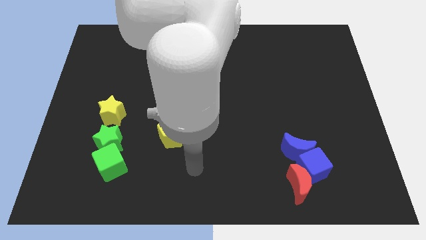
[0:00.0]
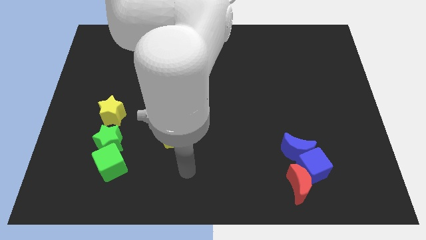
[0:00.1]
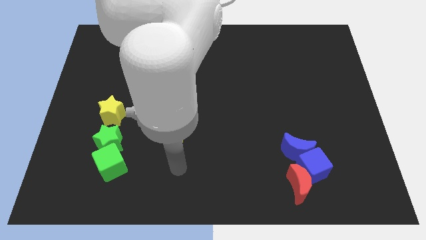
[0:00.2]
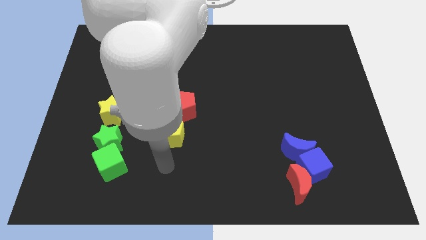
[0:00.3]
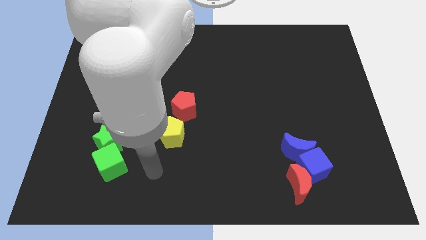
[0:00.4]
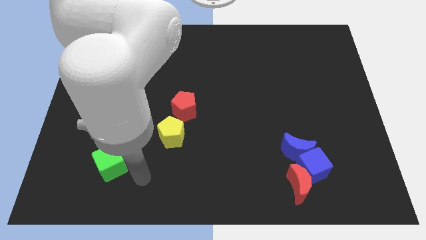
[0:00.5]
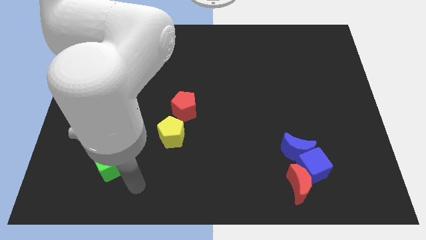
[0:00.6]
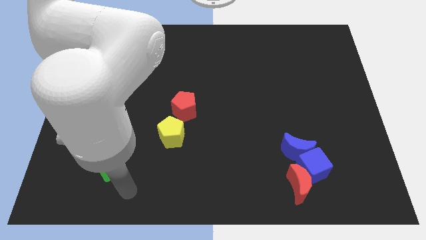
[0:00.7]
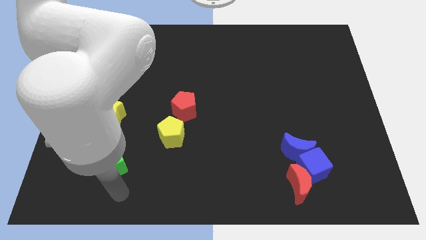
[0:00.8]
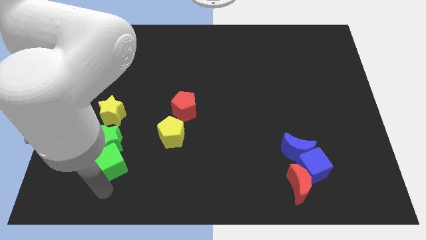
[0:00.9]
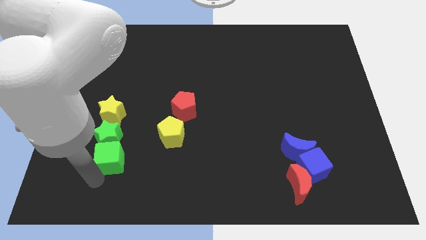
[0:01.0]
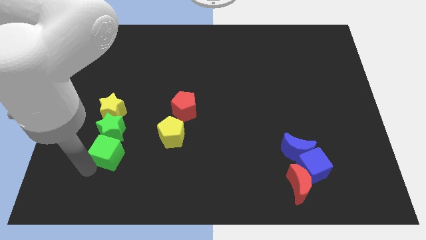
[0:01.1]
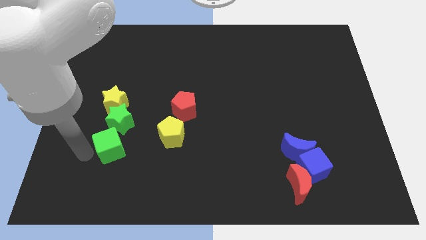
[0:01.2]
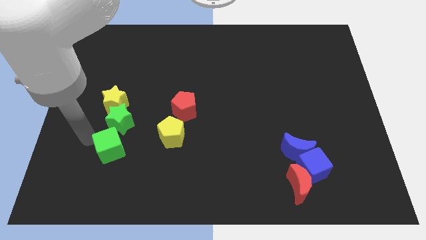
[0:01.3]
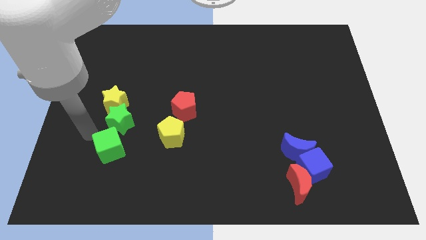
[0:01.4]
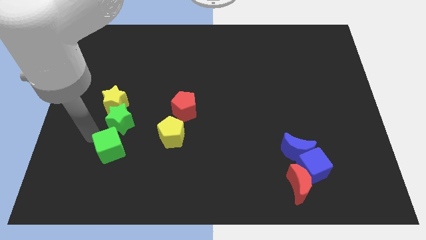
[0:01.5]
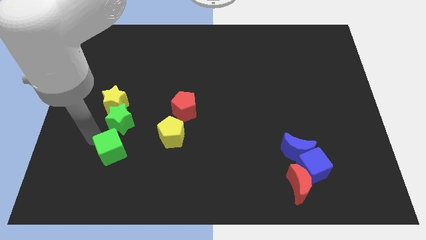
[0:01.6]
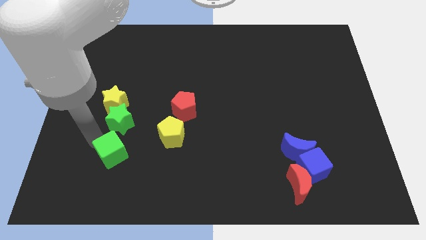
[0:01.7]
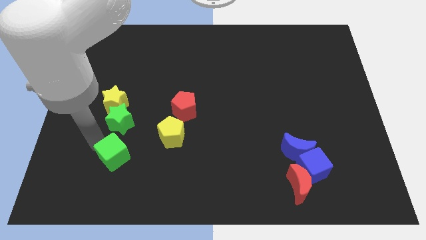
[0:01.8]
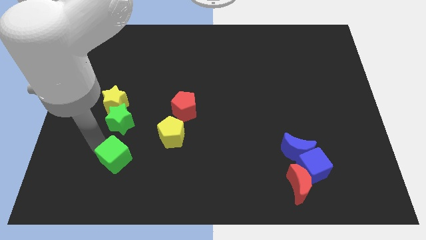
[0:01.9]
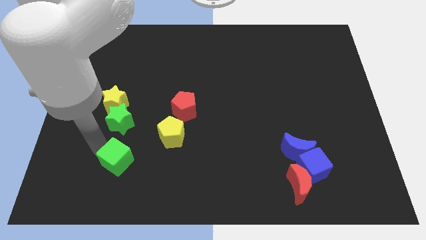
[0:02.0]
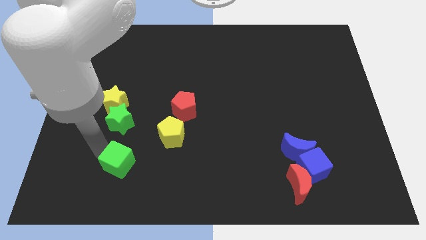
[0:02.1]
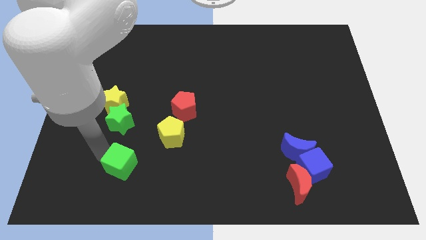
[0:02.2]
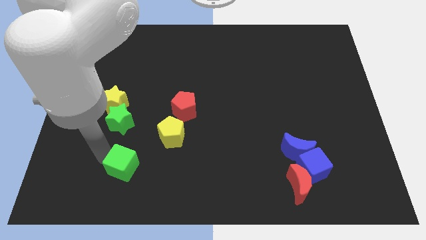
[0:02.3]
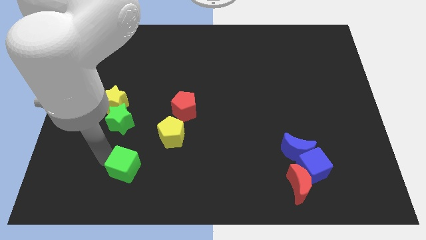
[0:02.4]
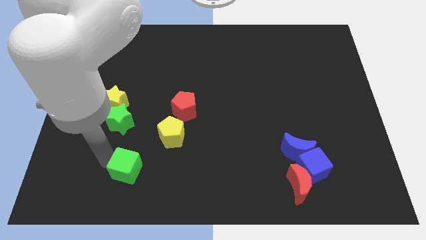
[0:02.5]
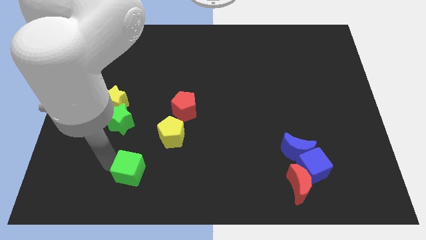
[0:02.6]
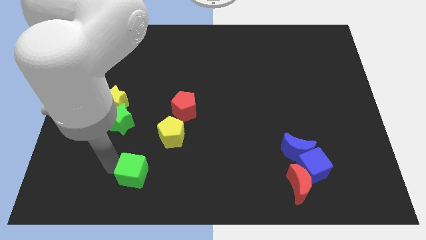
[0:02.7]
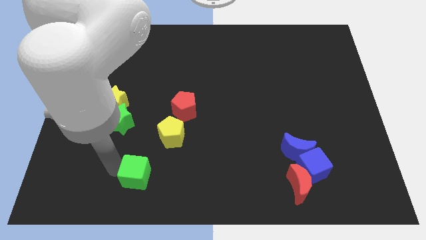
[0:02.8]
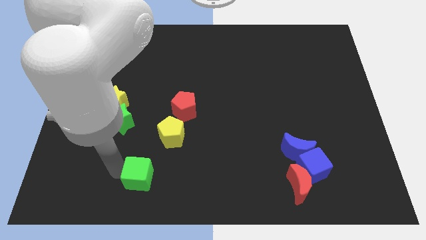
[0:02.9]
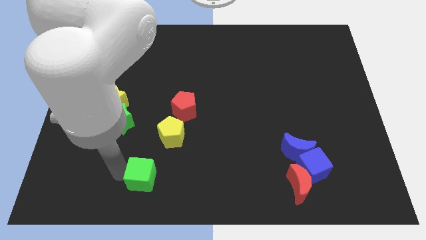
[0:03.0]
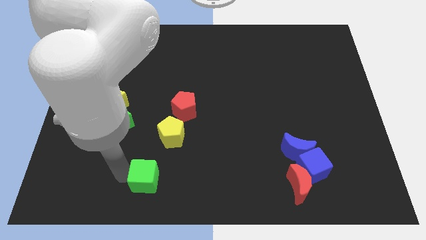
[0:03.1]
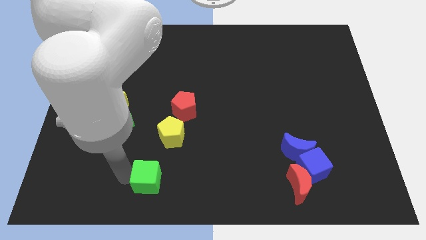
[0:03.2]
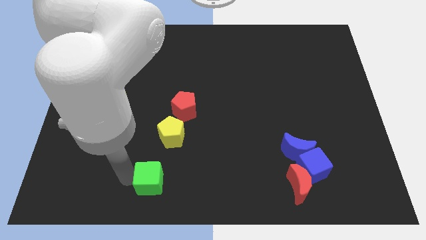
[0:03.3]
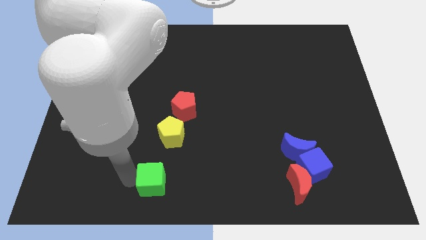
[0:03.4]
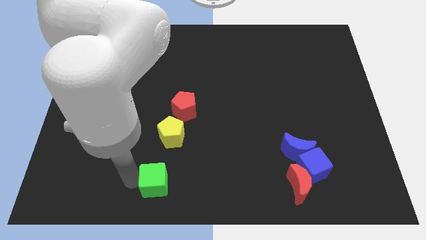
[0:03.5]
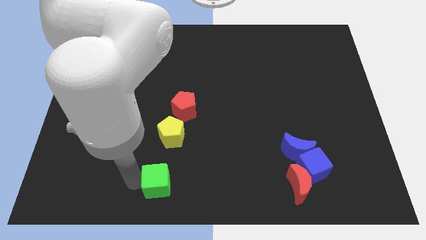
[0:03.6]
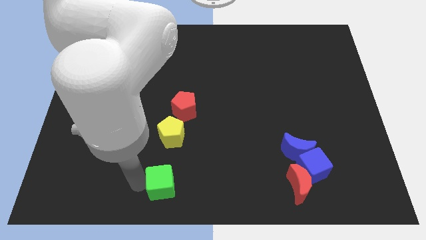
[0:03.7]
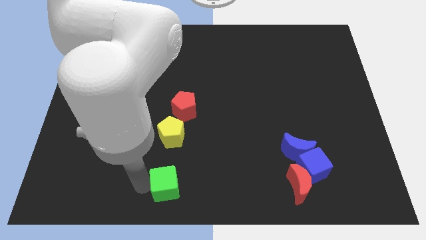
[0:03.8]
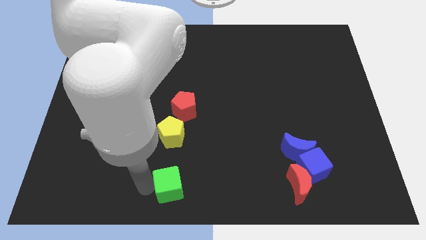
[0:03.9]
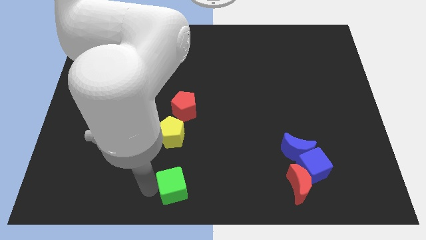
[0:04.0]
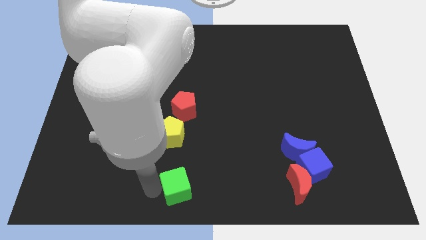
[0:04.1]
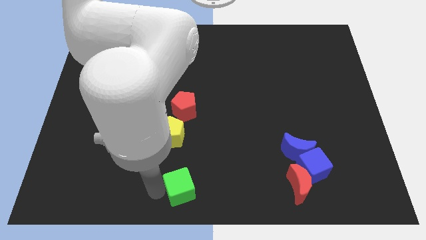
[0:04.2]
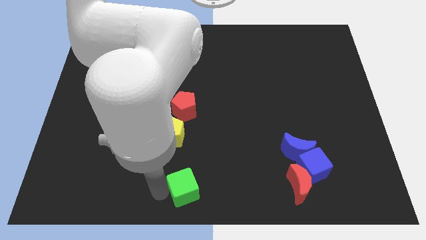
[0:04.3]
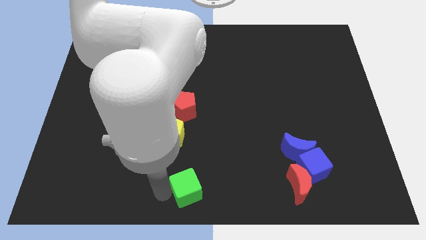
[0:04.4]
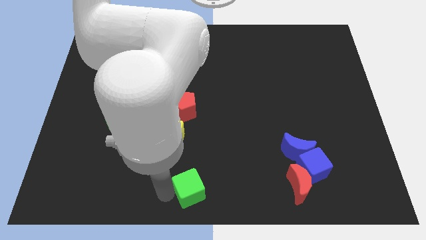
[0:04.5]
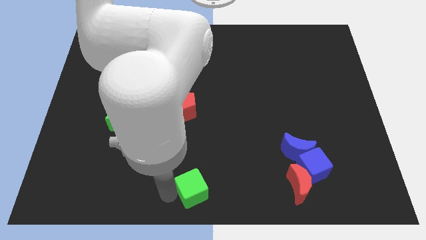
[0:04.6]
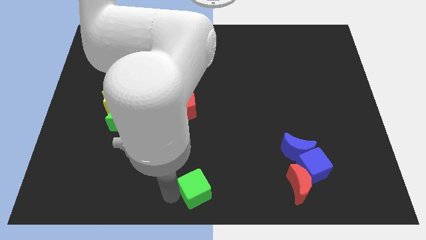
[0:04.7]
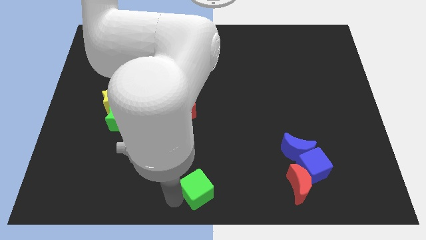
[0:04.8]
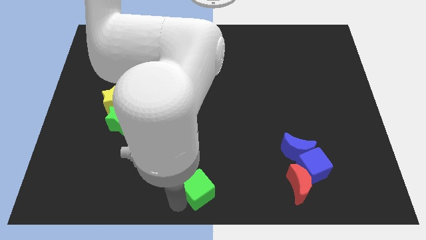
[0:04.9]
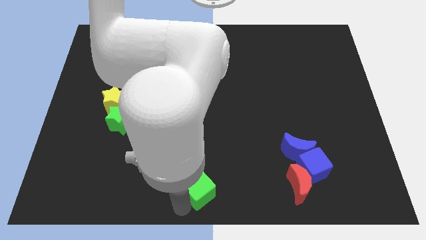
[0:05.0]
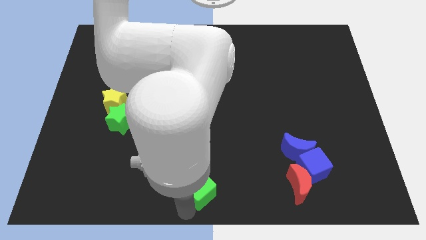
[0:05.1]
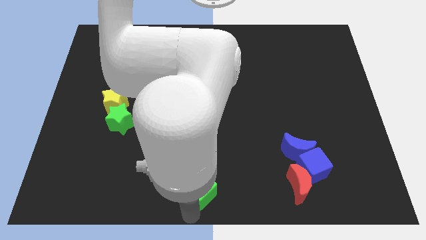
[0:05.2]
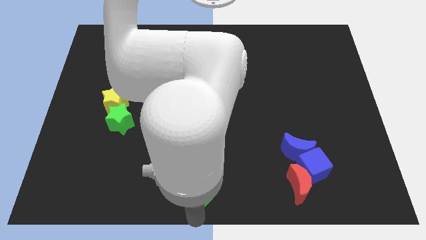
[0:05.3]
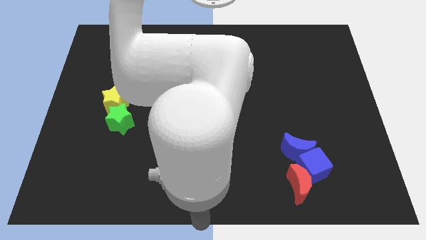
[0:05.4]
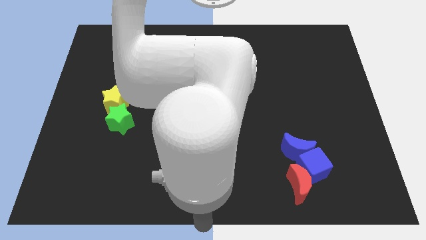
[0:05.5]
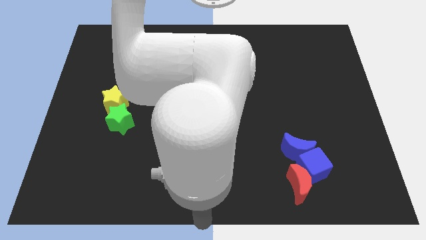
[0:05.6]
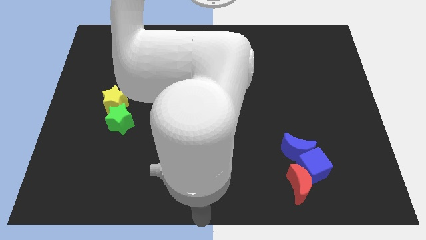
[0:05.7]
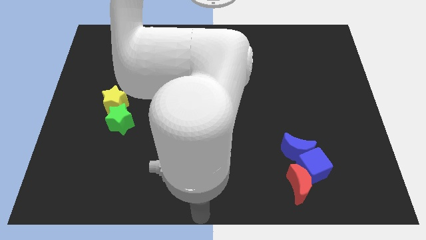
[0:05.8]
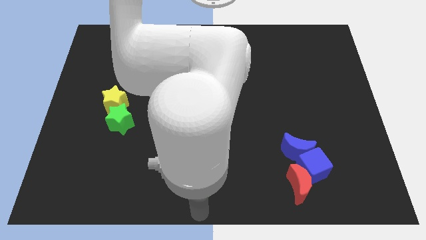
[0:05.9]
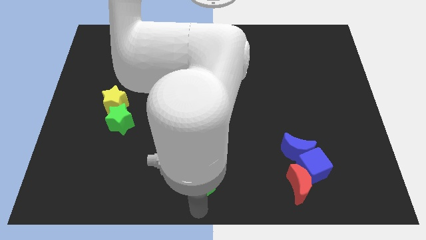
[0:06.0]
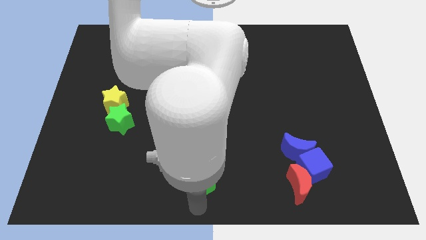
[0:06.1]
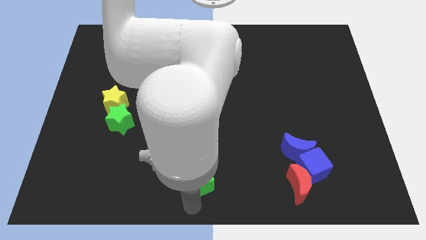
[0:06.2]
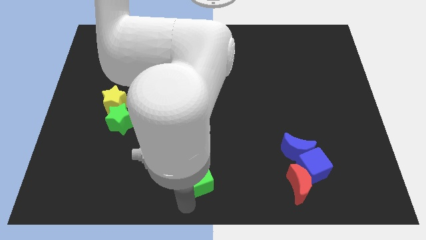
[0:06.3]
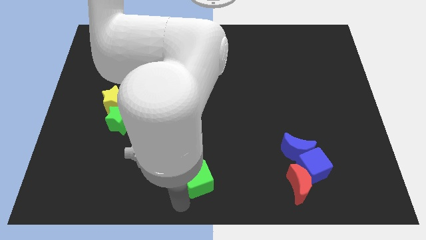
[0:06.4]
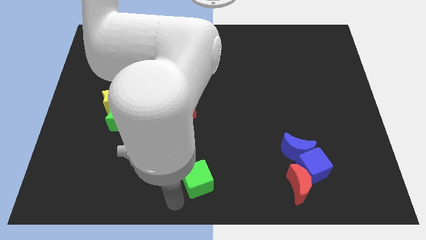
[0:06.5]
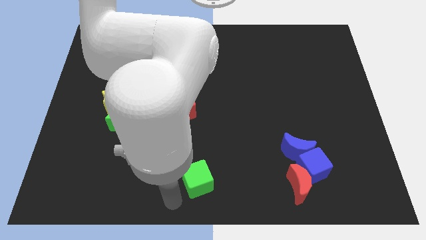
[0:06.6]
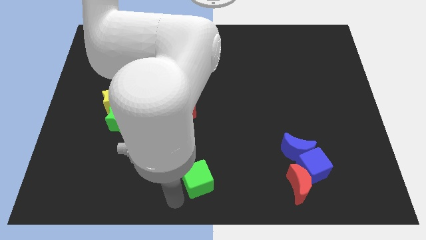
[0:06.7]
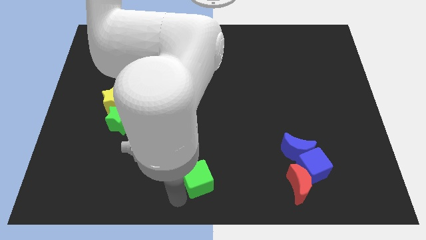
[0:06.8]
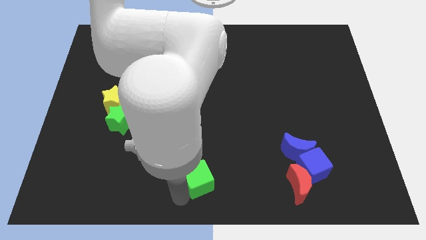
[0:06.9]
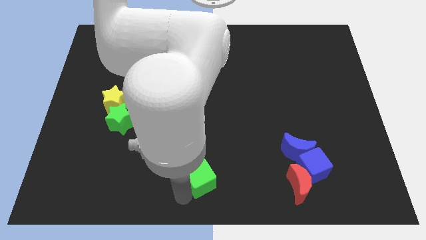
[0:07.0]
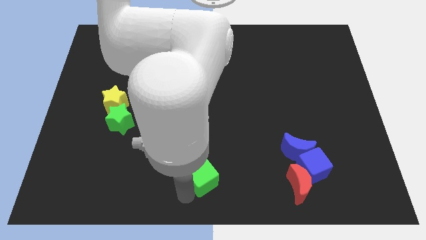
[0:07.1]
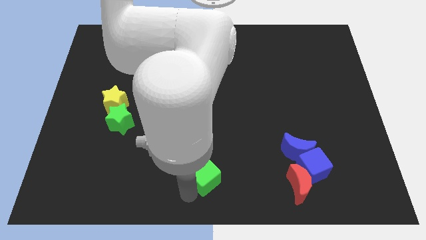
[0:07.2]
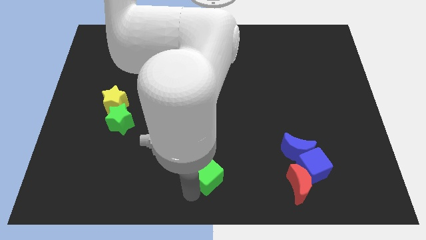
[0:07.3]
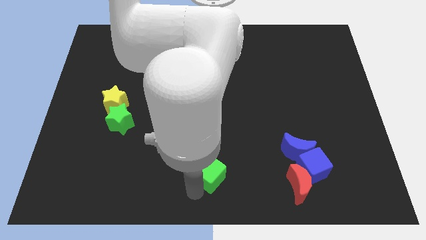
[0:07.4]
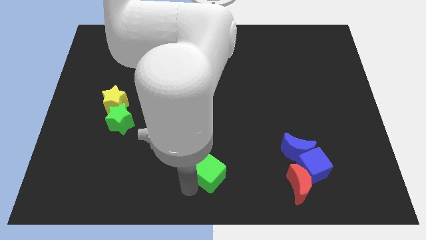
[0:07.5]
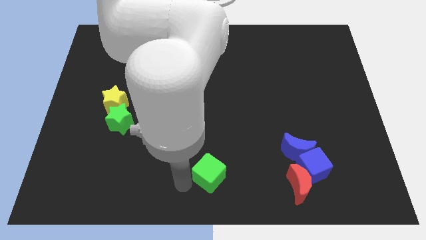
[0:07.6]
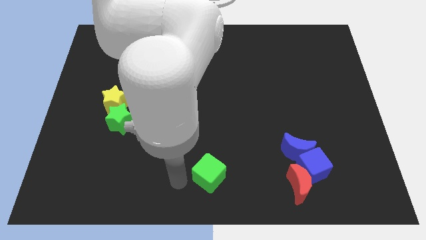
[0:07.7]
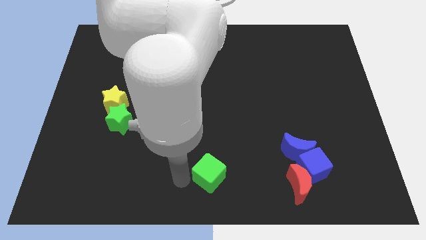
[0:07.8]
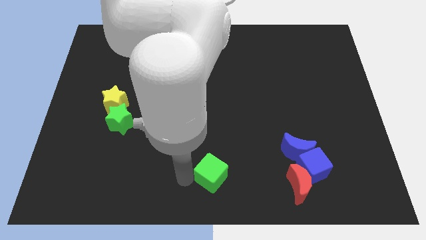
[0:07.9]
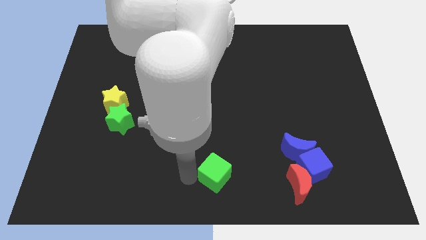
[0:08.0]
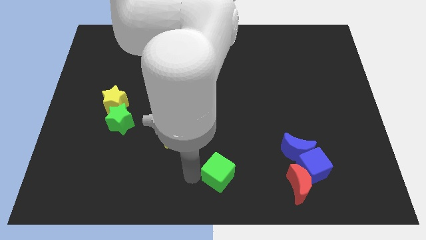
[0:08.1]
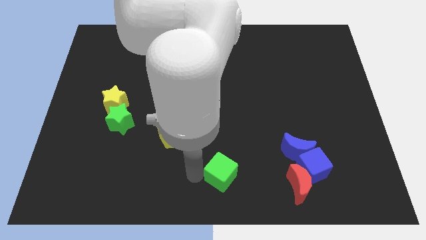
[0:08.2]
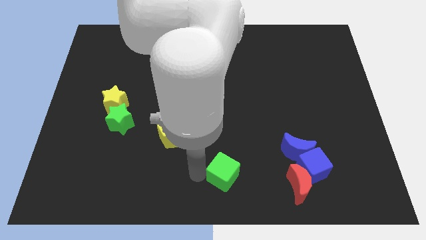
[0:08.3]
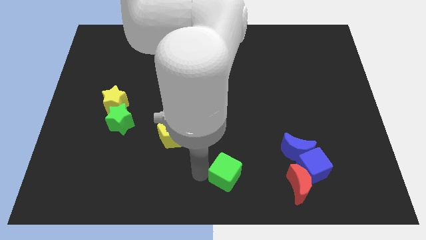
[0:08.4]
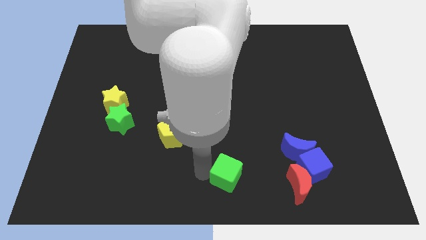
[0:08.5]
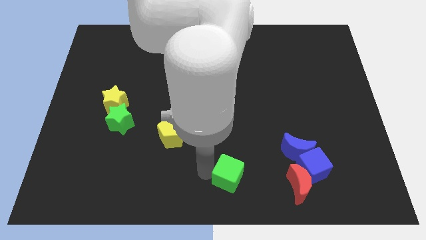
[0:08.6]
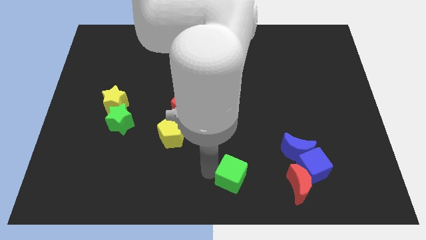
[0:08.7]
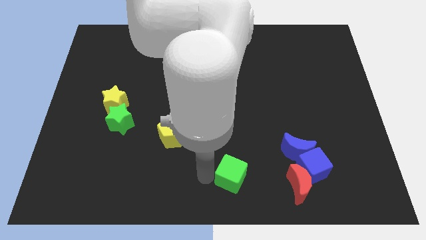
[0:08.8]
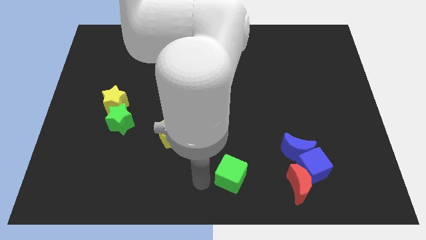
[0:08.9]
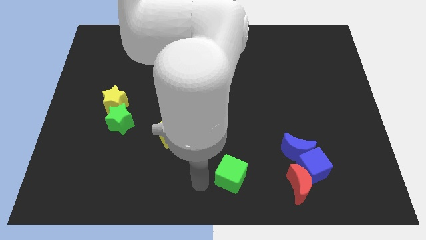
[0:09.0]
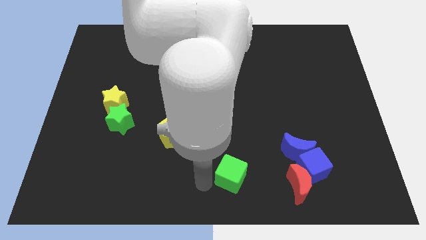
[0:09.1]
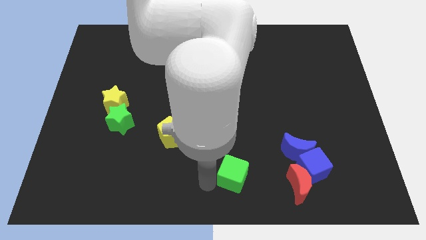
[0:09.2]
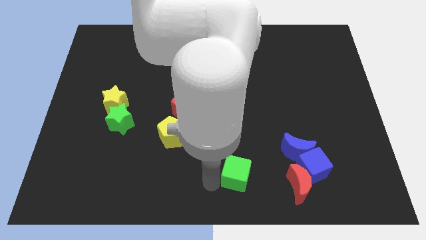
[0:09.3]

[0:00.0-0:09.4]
put the green cube left of the blue cube
